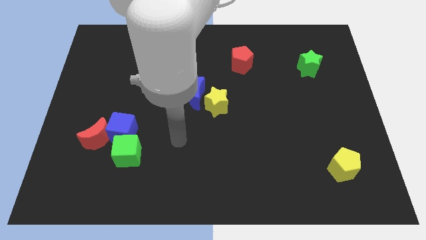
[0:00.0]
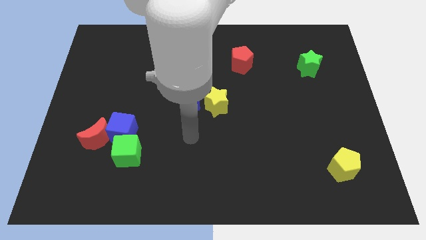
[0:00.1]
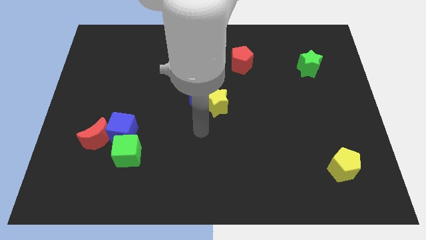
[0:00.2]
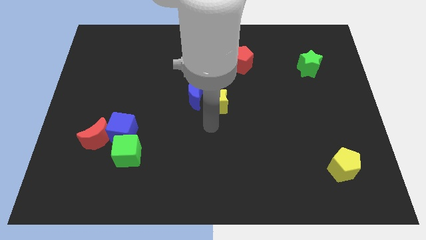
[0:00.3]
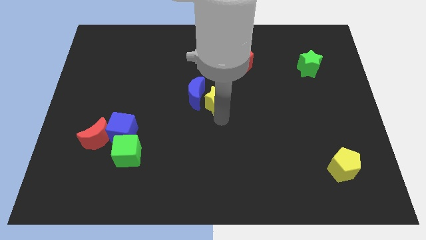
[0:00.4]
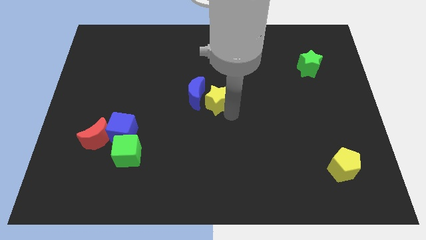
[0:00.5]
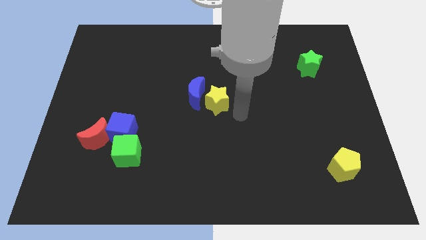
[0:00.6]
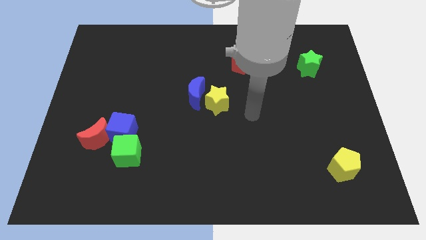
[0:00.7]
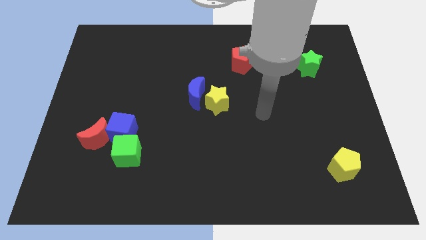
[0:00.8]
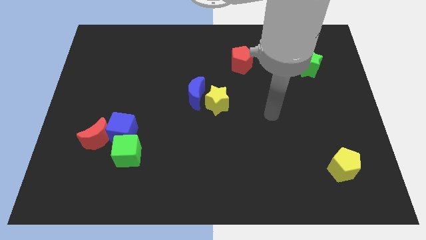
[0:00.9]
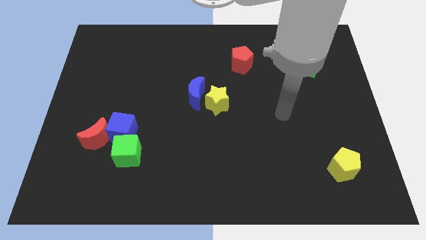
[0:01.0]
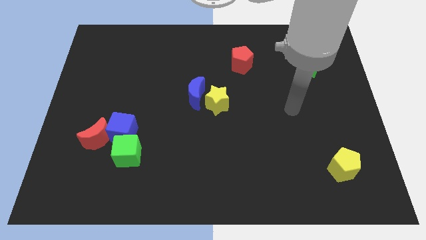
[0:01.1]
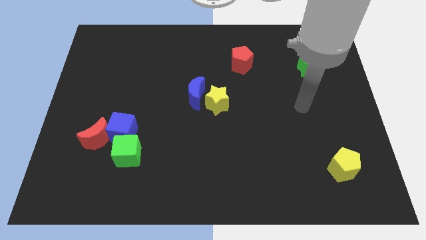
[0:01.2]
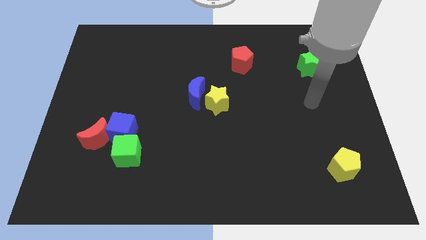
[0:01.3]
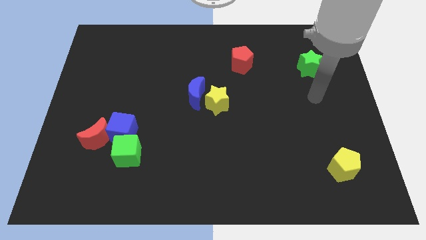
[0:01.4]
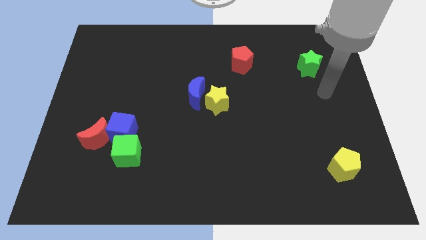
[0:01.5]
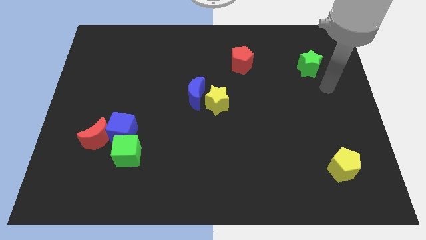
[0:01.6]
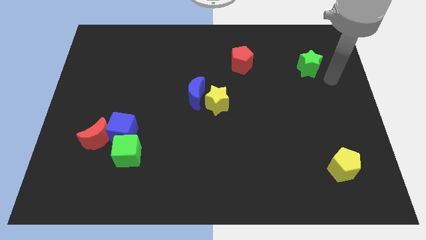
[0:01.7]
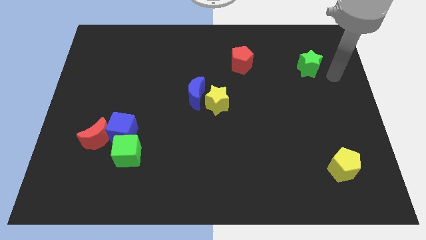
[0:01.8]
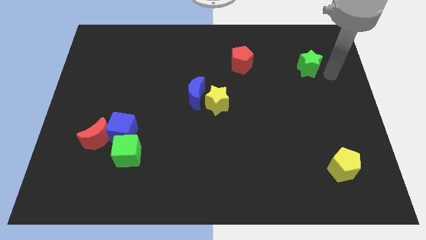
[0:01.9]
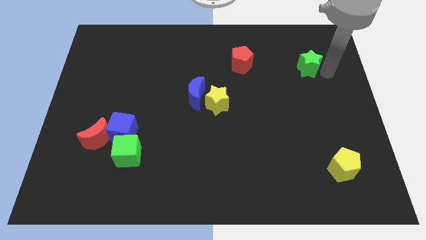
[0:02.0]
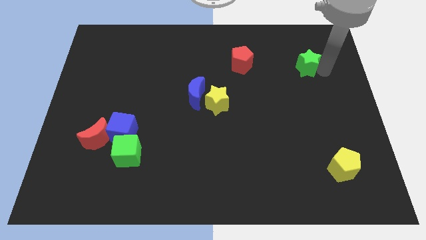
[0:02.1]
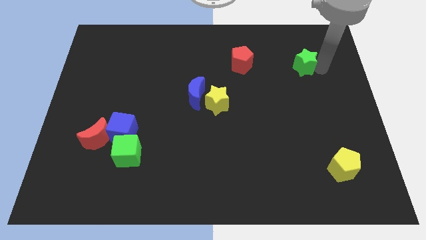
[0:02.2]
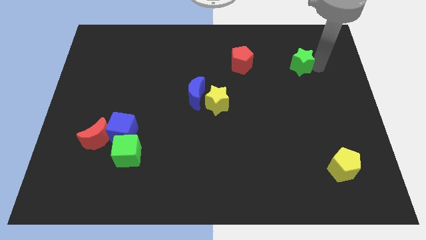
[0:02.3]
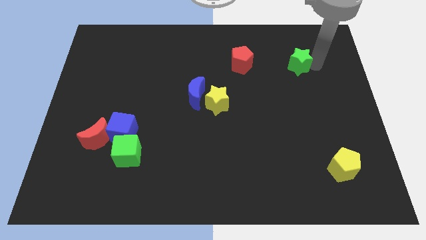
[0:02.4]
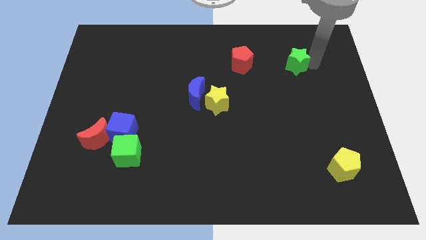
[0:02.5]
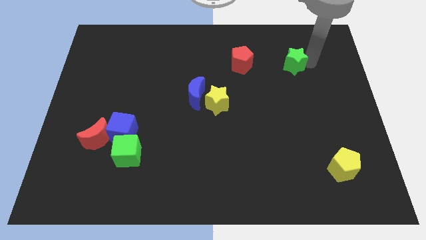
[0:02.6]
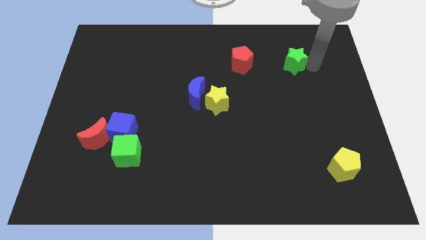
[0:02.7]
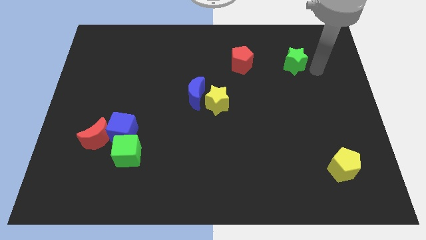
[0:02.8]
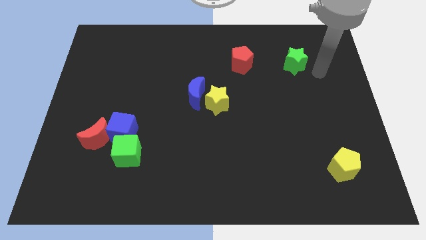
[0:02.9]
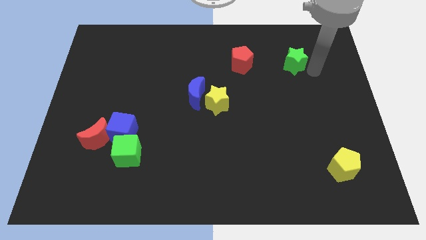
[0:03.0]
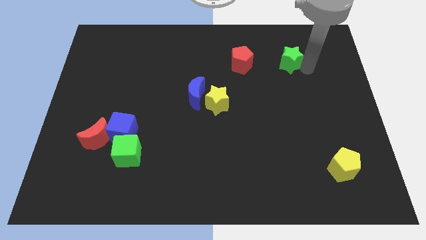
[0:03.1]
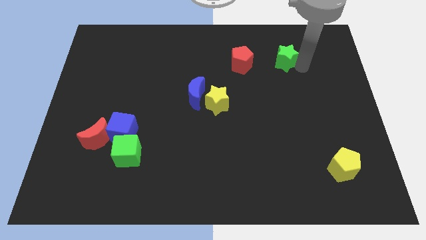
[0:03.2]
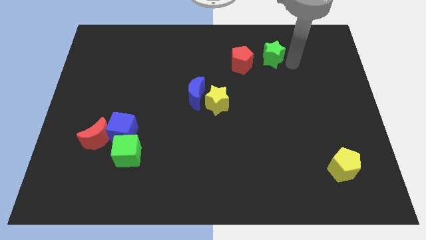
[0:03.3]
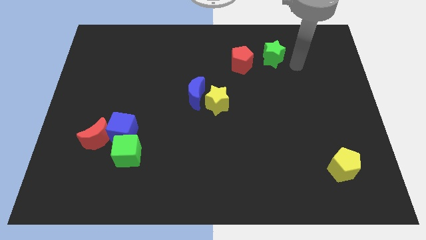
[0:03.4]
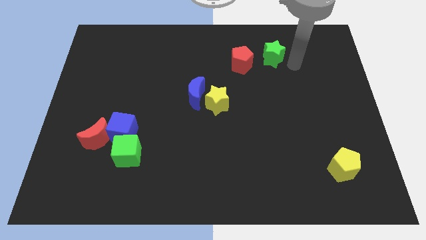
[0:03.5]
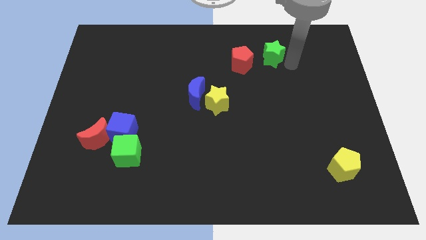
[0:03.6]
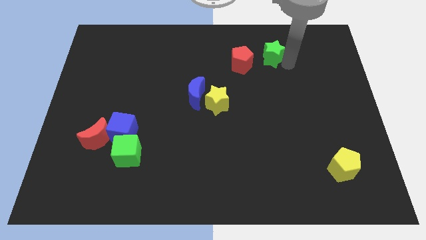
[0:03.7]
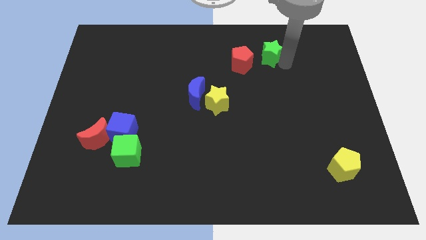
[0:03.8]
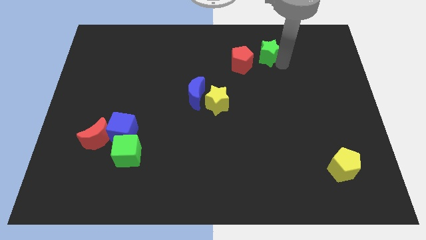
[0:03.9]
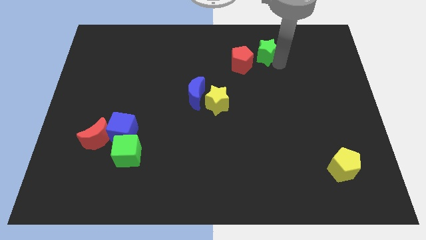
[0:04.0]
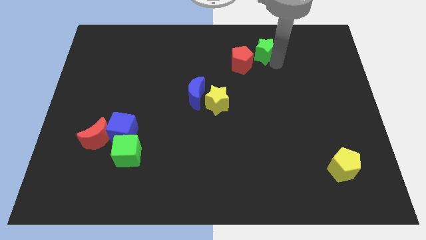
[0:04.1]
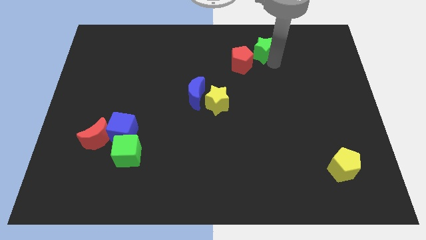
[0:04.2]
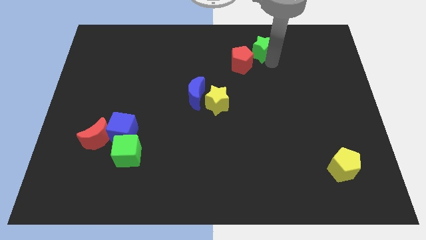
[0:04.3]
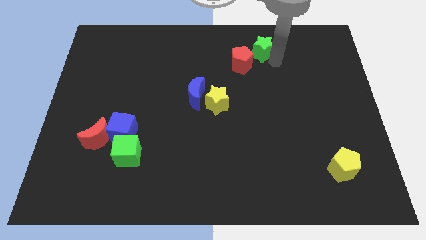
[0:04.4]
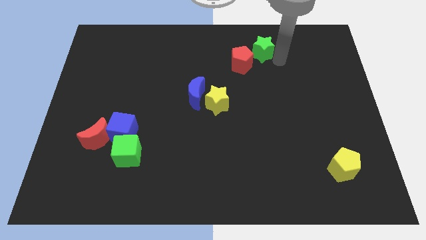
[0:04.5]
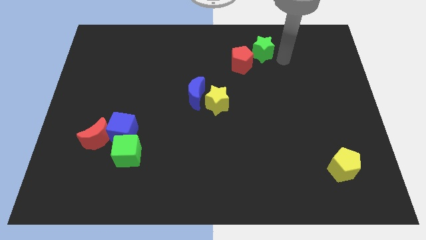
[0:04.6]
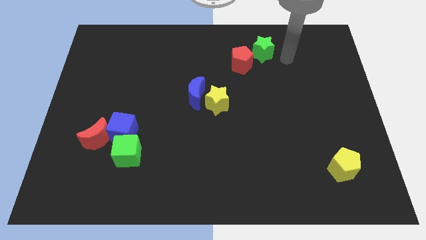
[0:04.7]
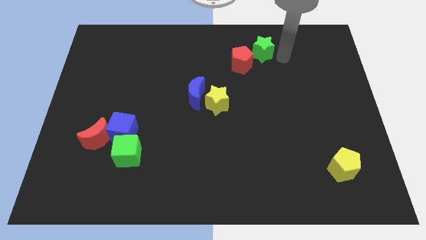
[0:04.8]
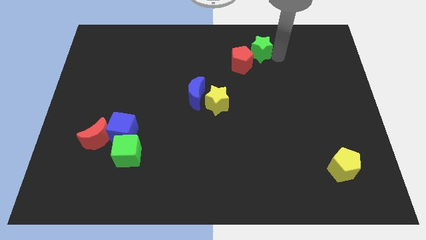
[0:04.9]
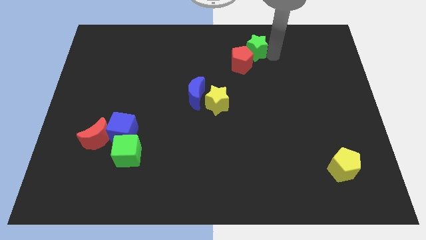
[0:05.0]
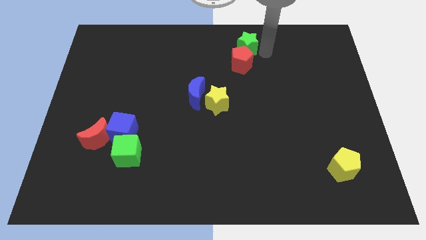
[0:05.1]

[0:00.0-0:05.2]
push the green star to the towards your base

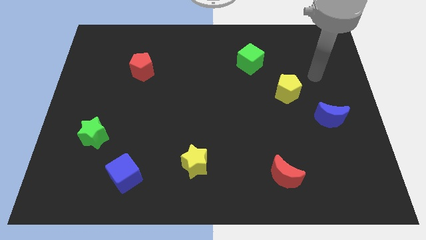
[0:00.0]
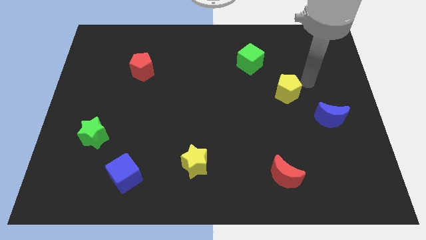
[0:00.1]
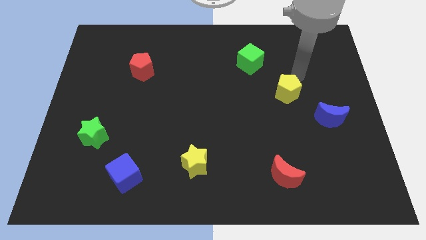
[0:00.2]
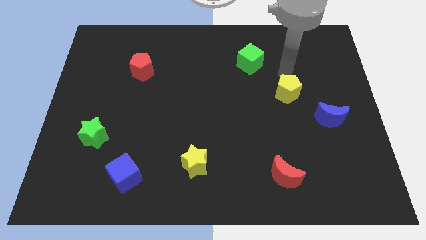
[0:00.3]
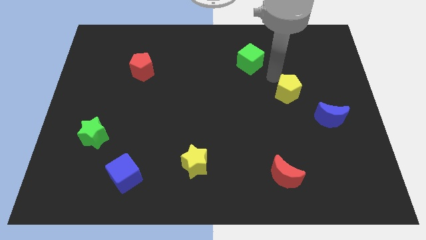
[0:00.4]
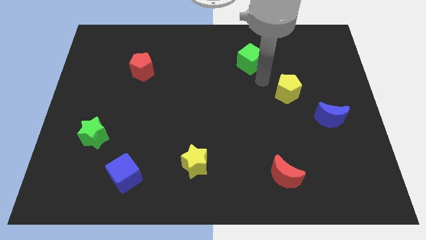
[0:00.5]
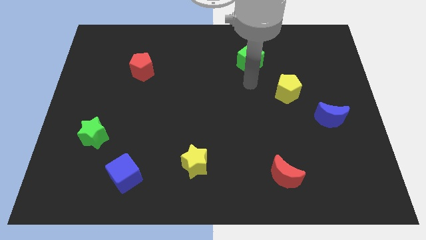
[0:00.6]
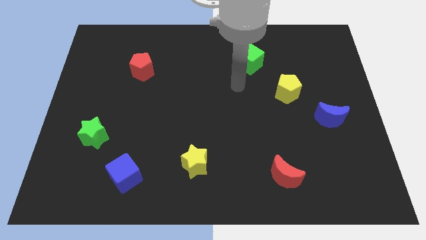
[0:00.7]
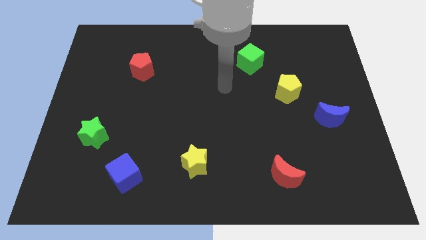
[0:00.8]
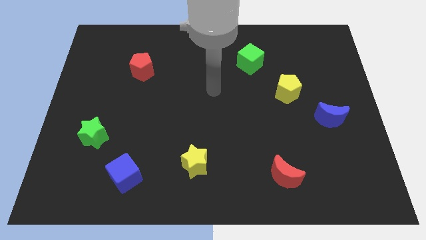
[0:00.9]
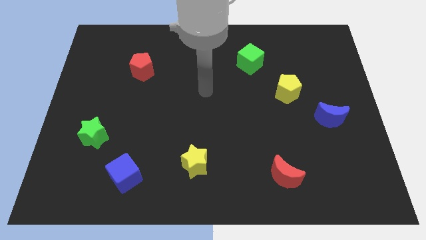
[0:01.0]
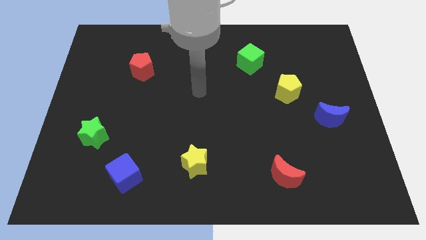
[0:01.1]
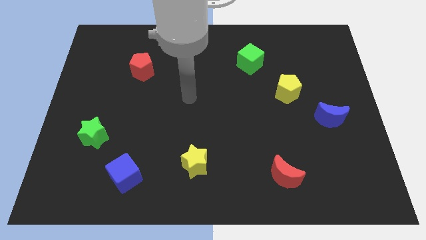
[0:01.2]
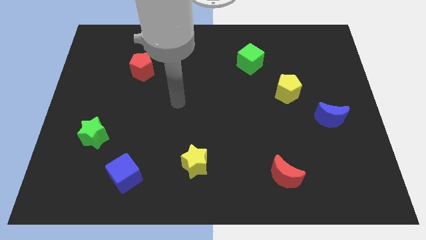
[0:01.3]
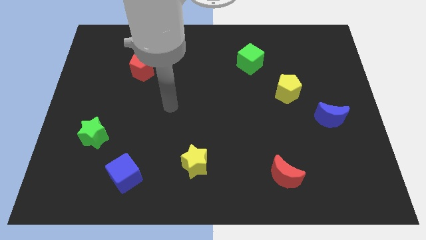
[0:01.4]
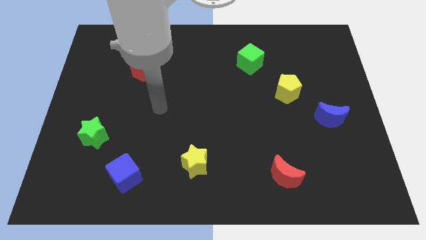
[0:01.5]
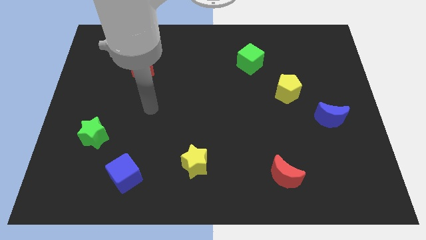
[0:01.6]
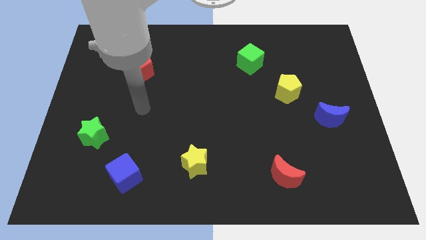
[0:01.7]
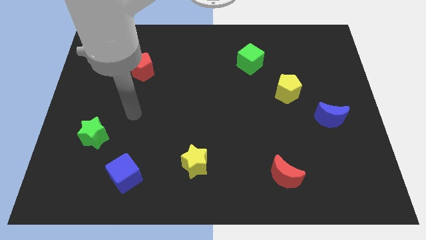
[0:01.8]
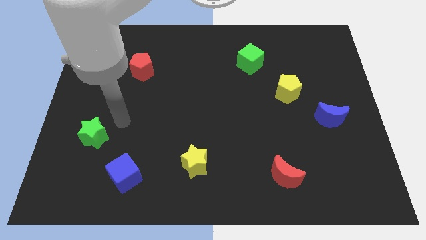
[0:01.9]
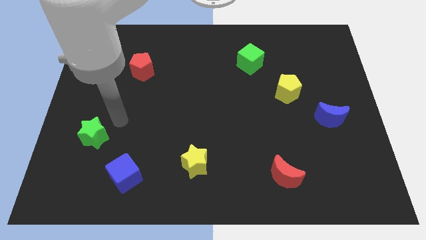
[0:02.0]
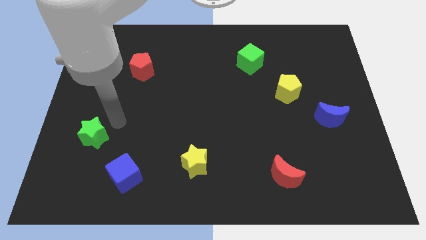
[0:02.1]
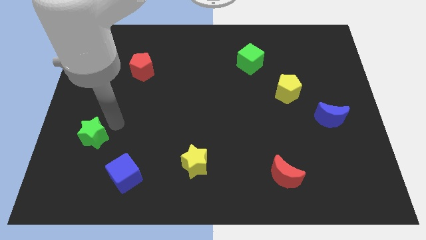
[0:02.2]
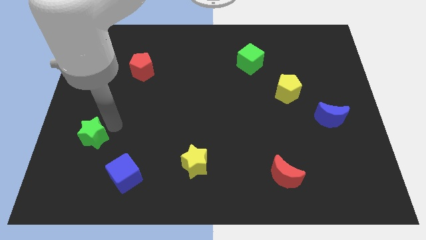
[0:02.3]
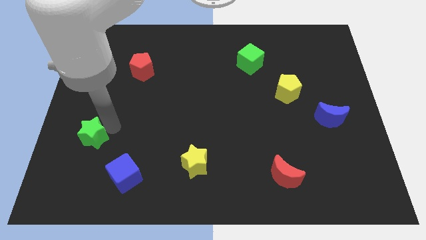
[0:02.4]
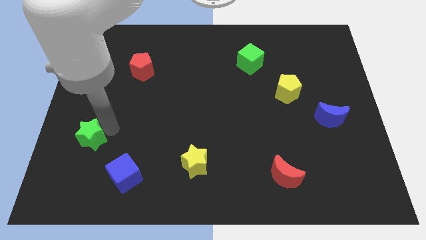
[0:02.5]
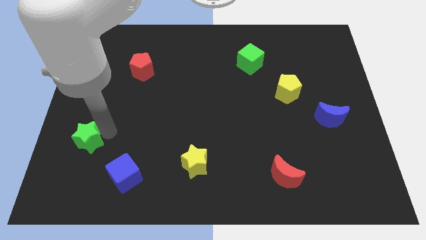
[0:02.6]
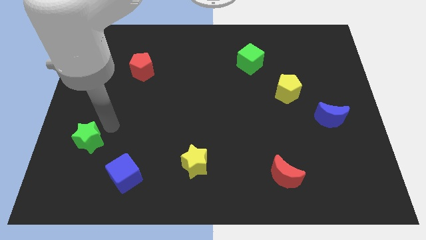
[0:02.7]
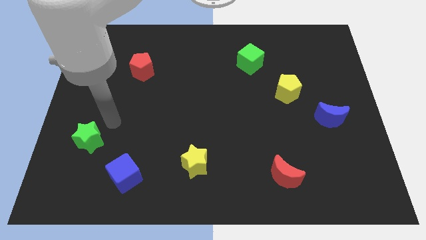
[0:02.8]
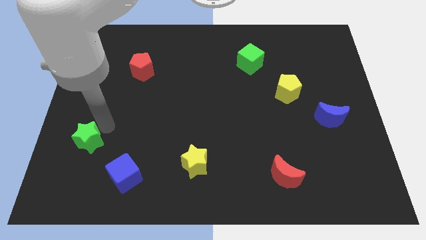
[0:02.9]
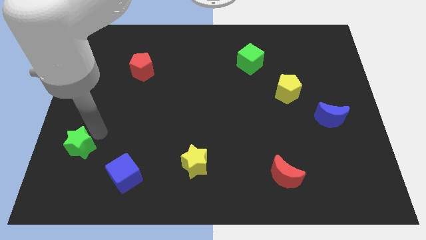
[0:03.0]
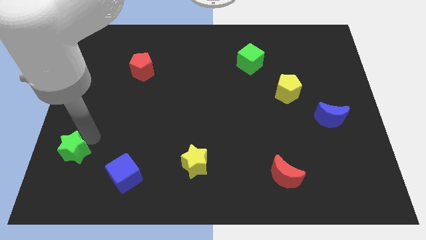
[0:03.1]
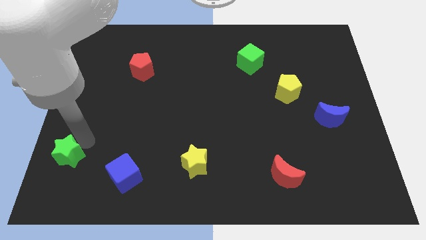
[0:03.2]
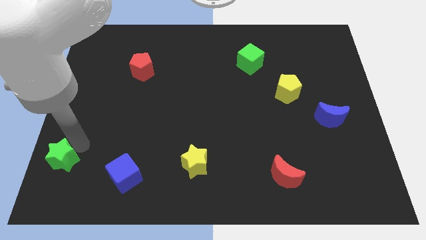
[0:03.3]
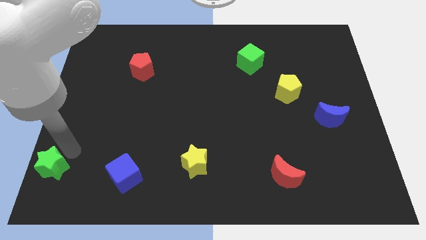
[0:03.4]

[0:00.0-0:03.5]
put the green star to the lower left corner
